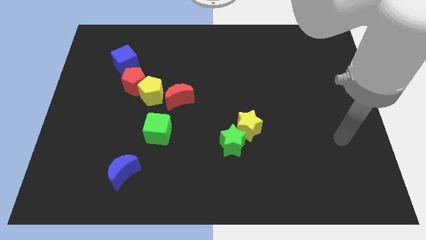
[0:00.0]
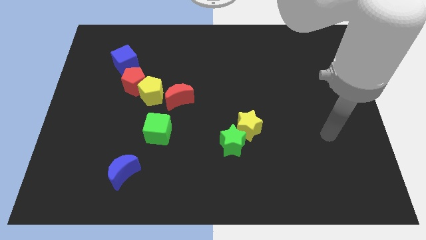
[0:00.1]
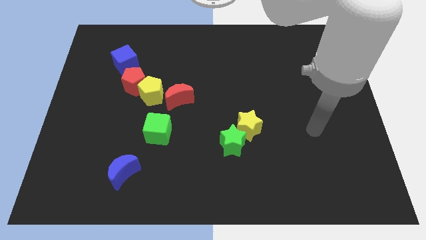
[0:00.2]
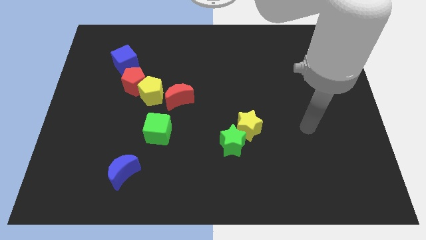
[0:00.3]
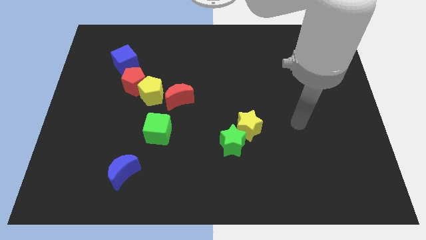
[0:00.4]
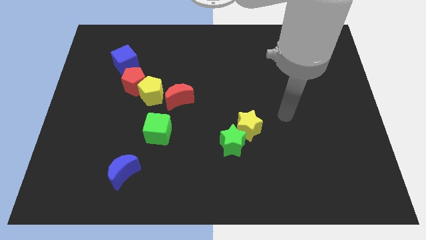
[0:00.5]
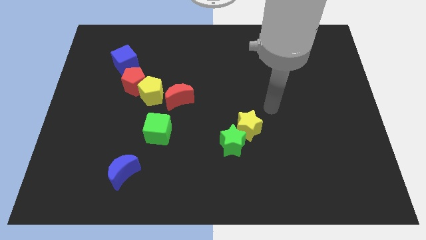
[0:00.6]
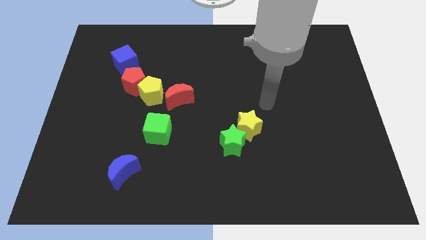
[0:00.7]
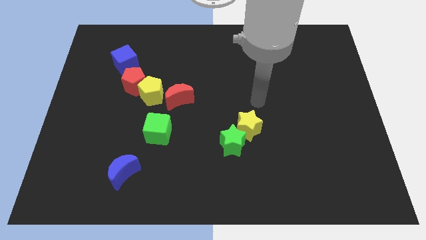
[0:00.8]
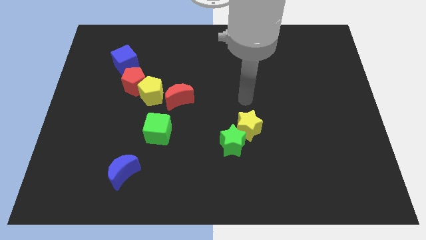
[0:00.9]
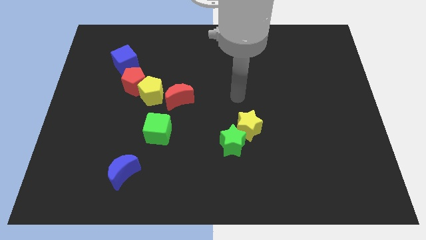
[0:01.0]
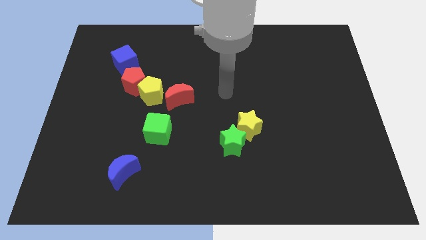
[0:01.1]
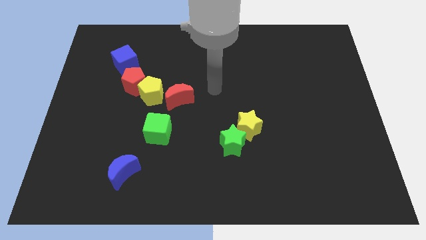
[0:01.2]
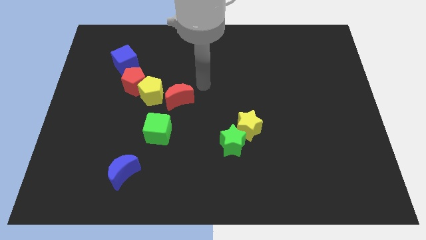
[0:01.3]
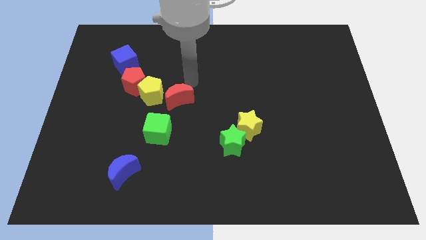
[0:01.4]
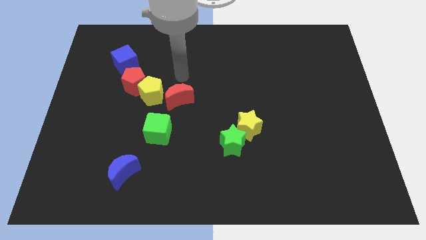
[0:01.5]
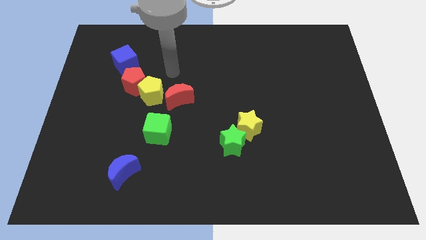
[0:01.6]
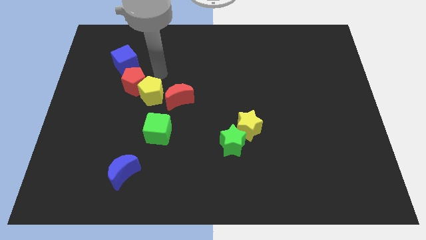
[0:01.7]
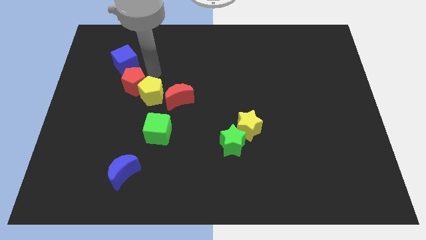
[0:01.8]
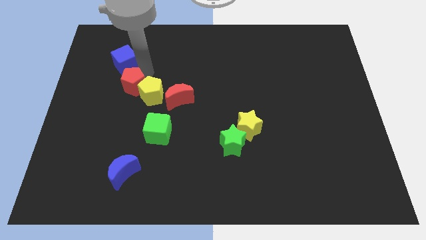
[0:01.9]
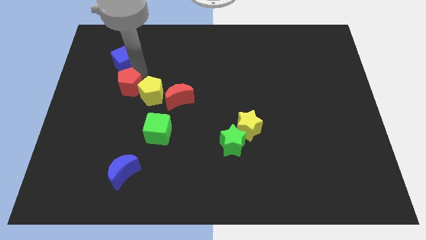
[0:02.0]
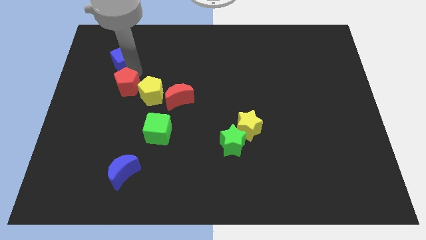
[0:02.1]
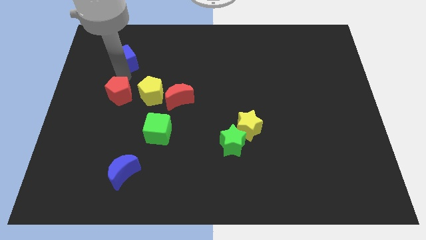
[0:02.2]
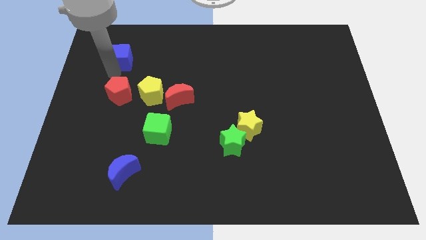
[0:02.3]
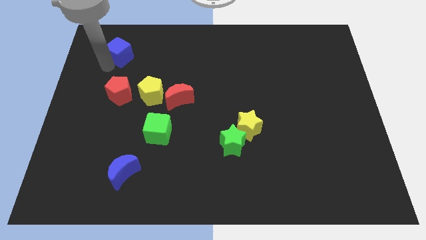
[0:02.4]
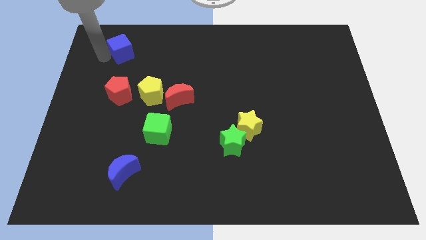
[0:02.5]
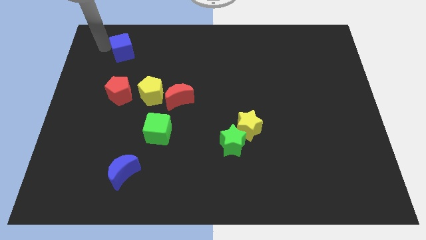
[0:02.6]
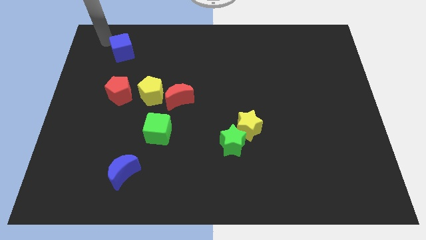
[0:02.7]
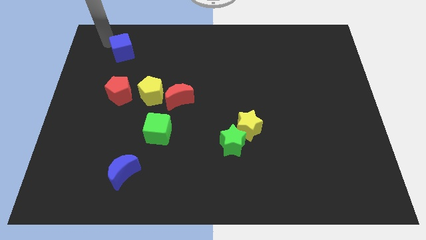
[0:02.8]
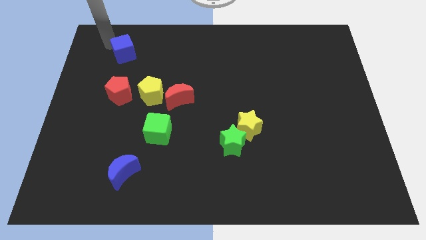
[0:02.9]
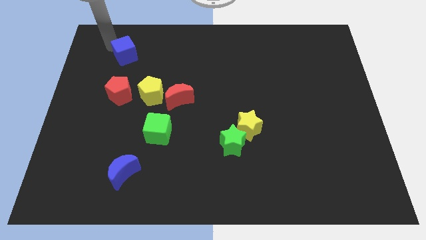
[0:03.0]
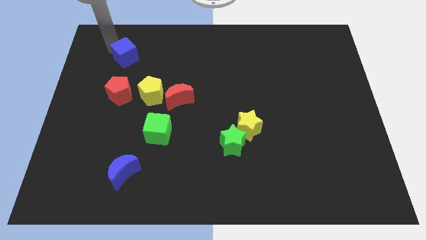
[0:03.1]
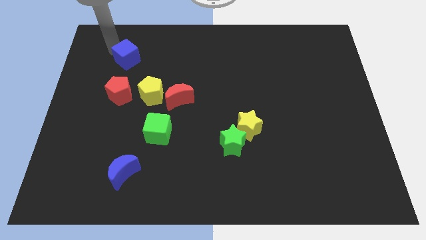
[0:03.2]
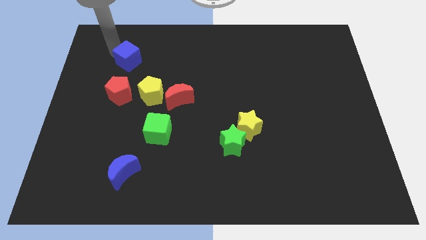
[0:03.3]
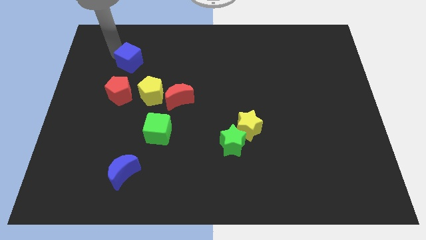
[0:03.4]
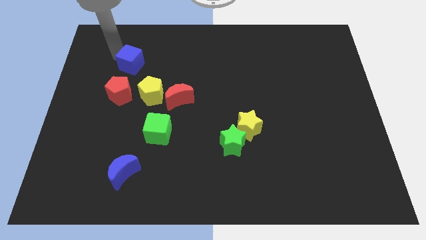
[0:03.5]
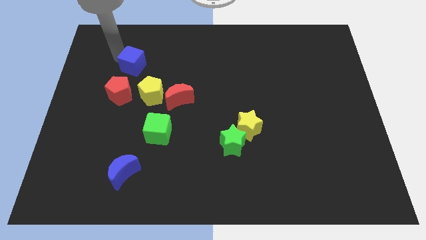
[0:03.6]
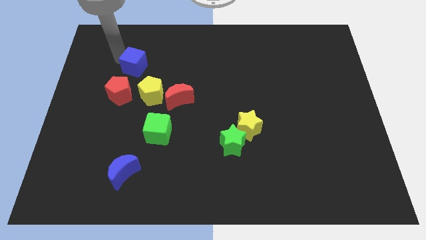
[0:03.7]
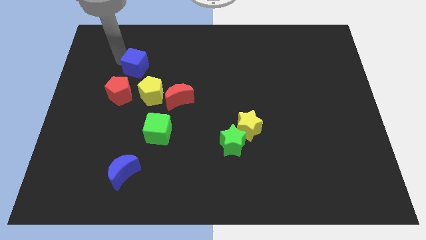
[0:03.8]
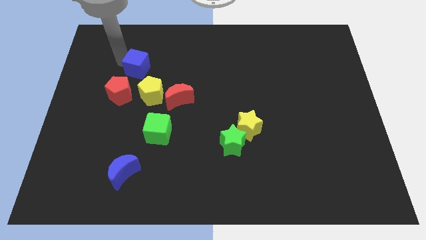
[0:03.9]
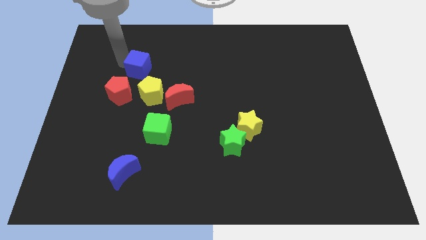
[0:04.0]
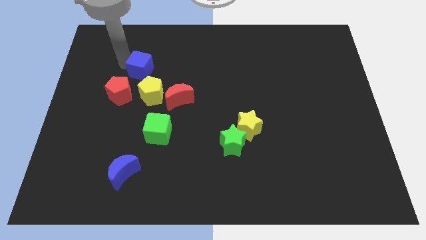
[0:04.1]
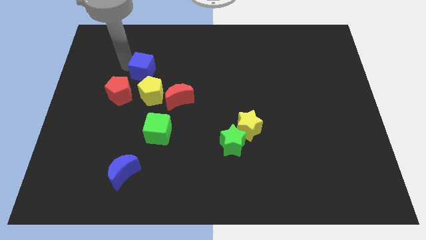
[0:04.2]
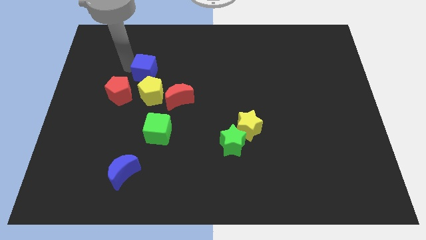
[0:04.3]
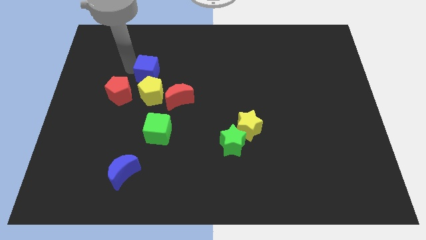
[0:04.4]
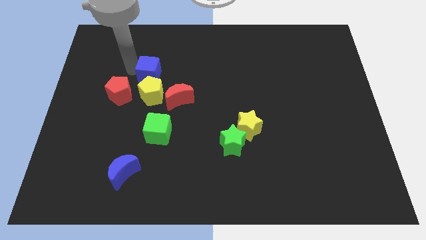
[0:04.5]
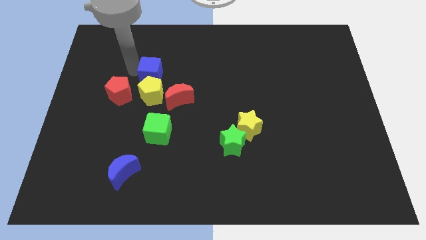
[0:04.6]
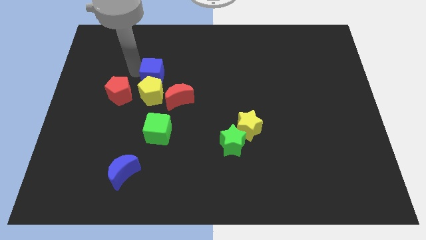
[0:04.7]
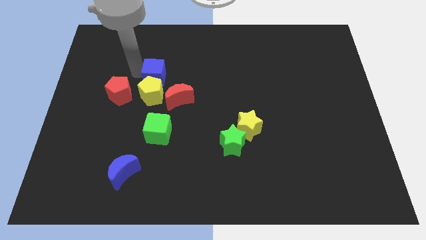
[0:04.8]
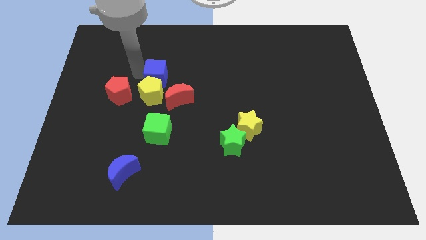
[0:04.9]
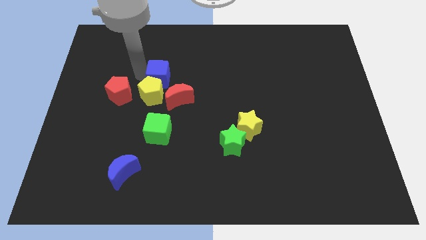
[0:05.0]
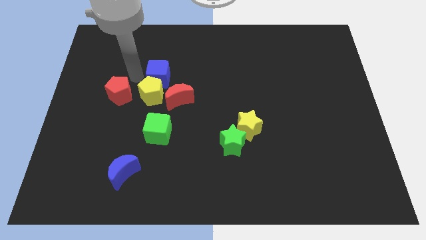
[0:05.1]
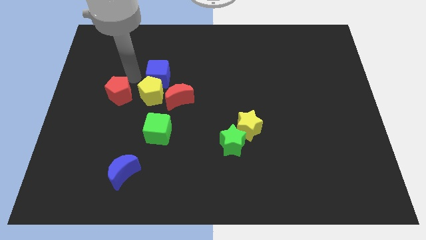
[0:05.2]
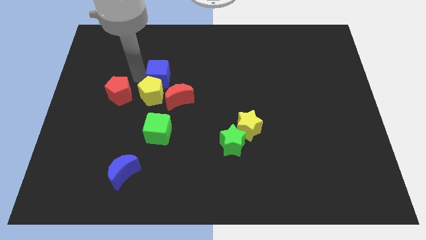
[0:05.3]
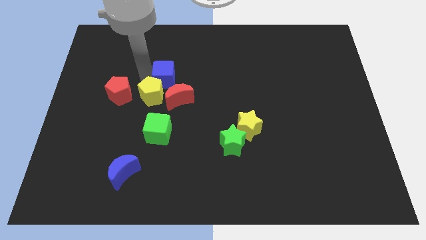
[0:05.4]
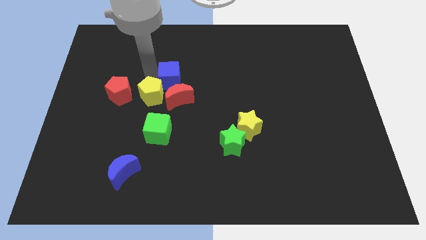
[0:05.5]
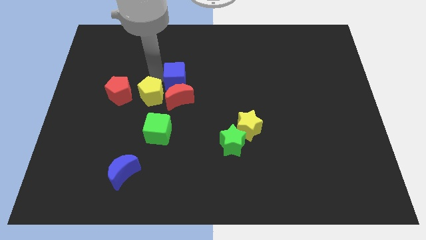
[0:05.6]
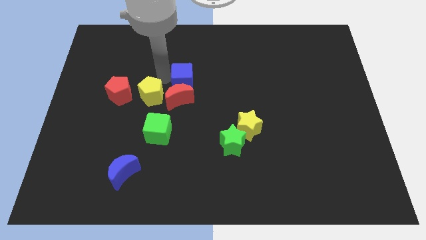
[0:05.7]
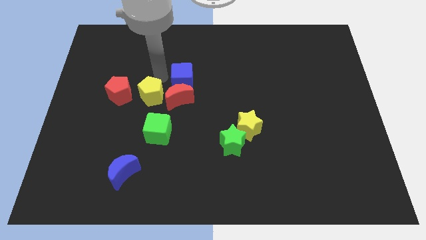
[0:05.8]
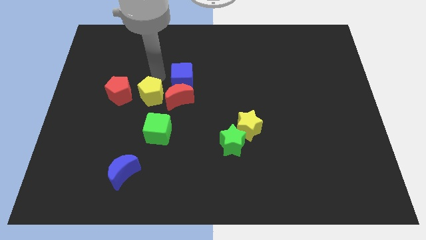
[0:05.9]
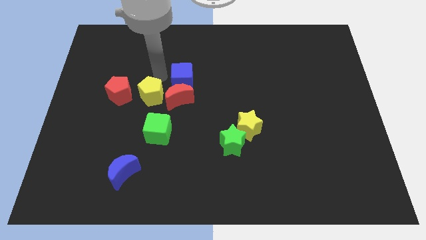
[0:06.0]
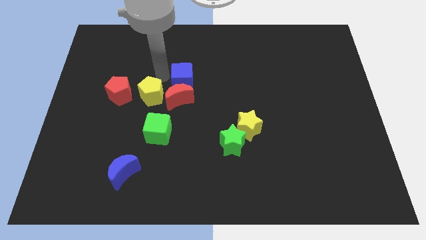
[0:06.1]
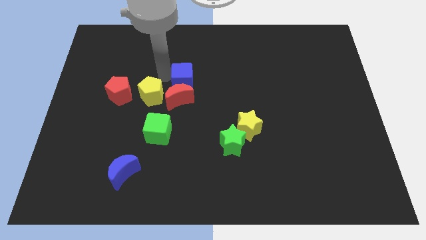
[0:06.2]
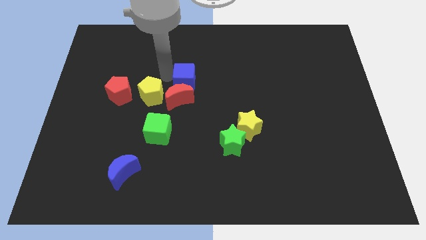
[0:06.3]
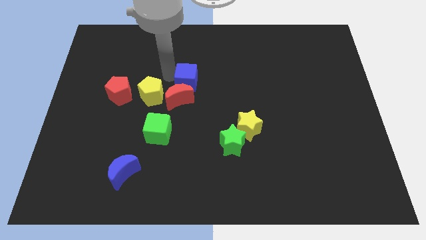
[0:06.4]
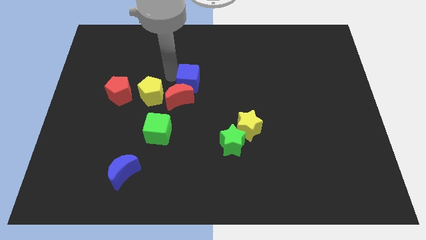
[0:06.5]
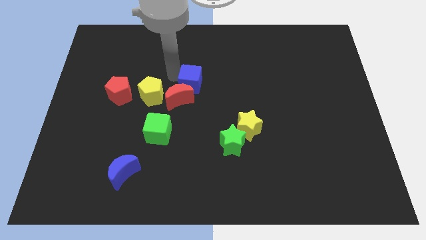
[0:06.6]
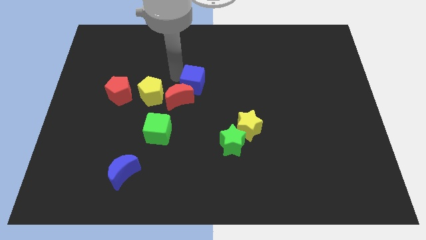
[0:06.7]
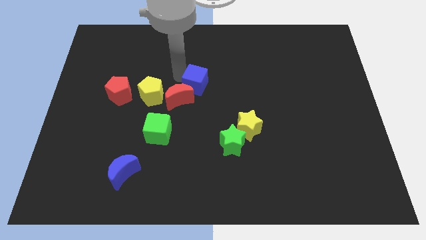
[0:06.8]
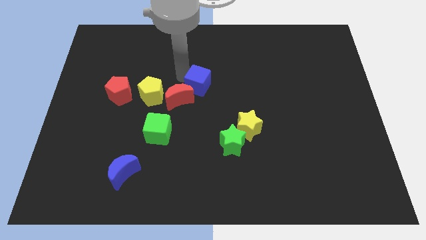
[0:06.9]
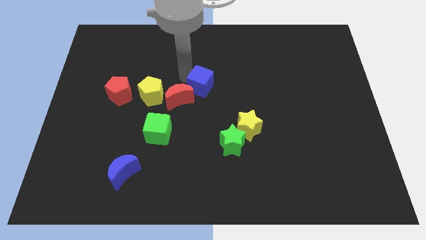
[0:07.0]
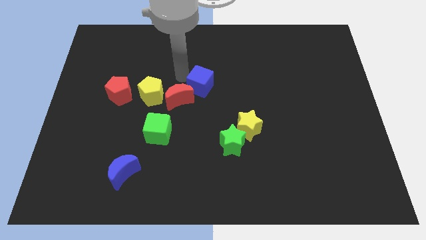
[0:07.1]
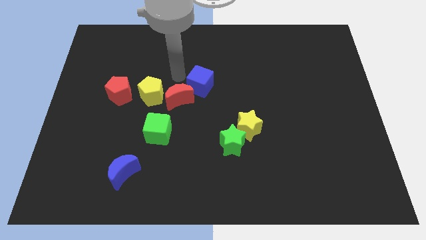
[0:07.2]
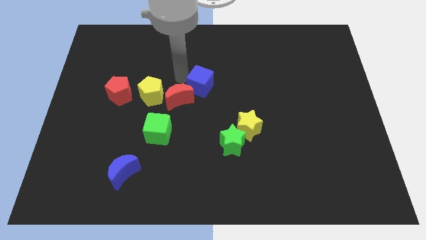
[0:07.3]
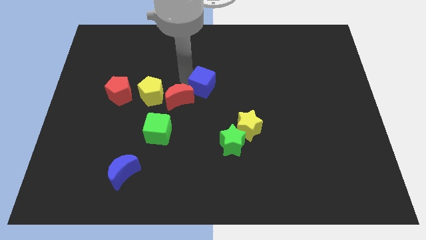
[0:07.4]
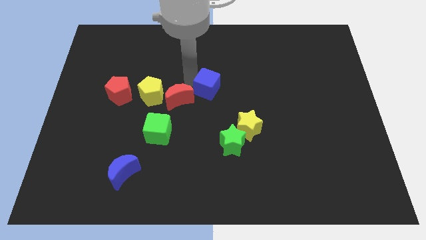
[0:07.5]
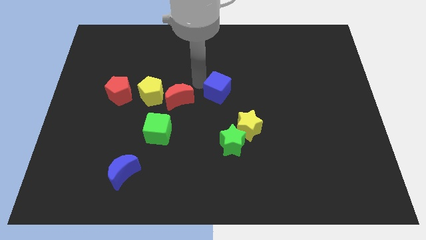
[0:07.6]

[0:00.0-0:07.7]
put the blue cube to the top side of the green star
